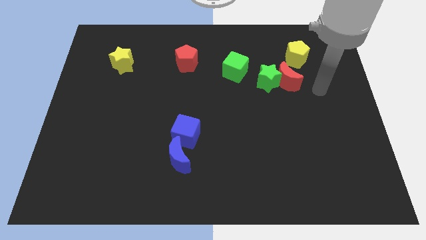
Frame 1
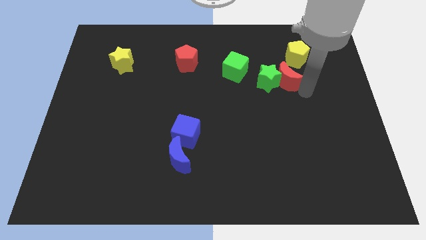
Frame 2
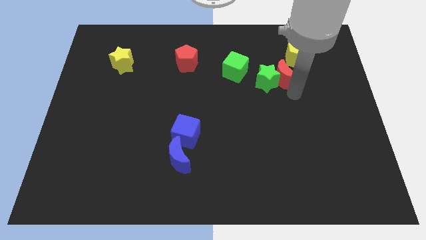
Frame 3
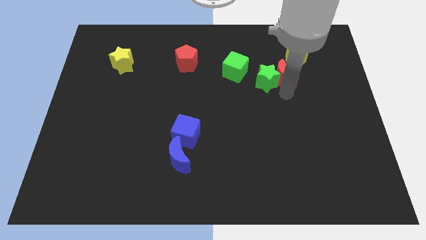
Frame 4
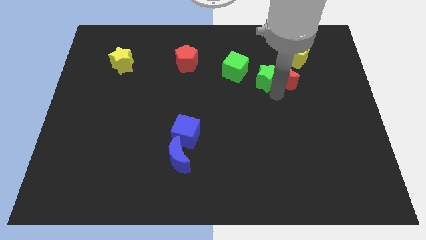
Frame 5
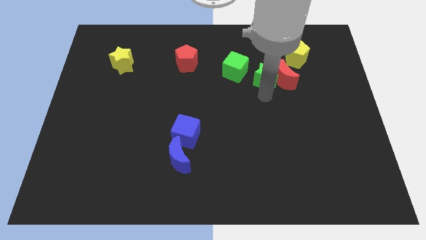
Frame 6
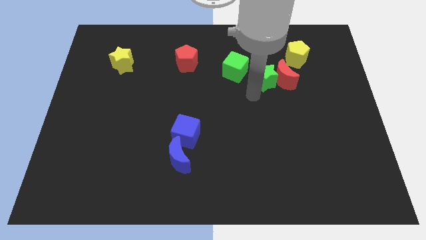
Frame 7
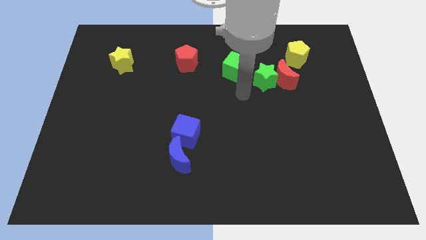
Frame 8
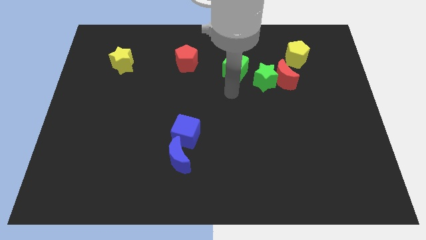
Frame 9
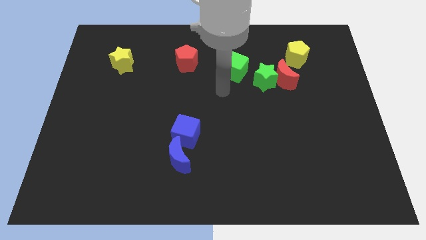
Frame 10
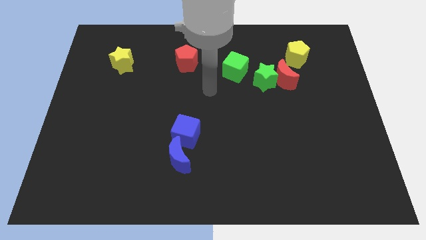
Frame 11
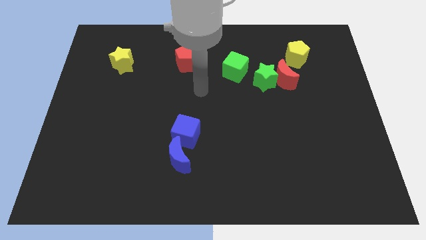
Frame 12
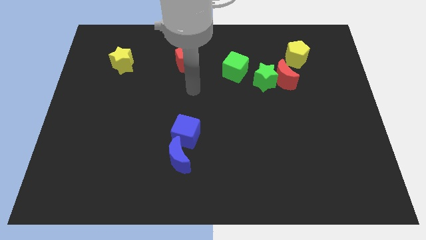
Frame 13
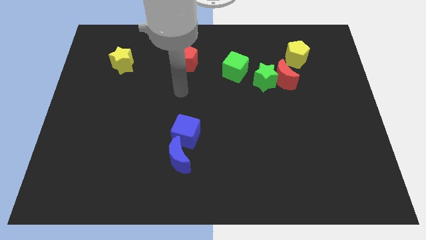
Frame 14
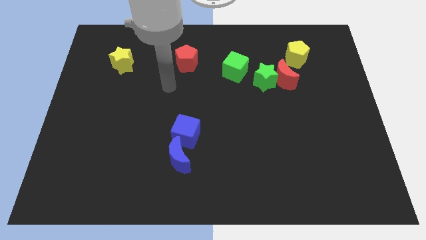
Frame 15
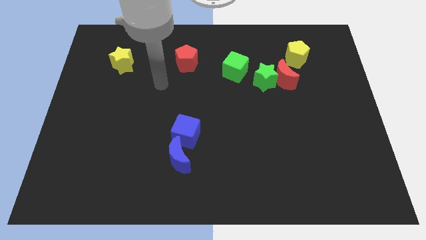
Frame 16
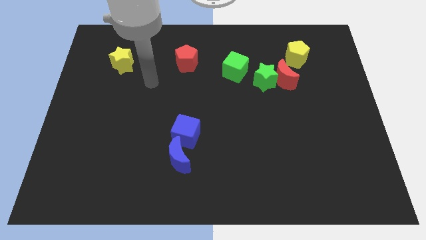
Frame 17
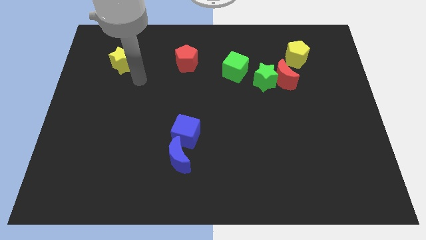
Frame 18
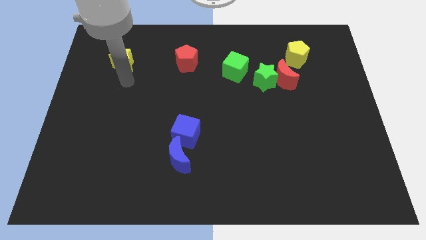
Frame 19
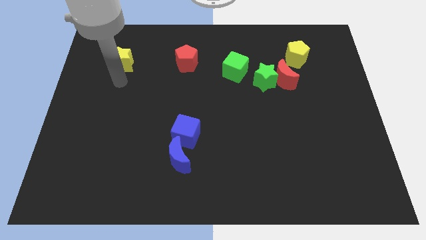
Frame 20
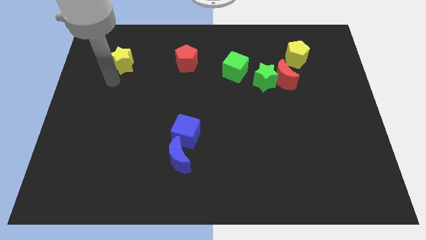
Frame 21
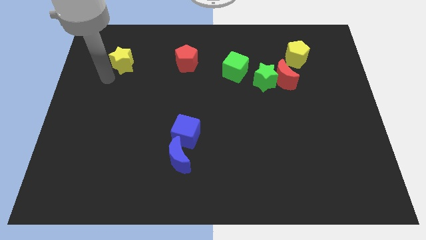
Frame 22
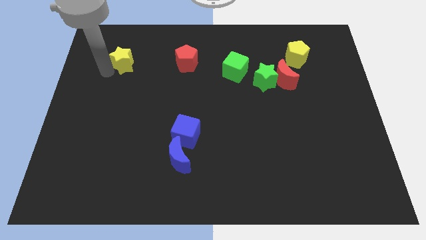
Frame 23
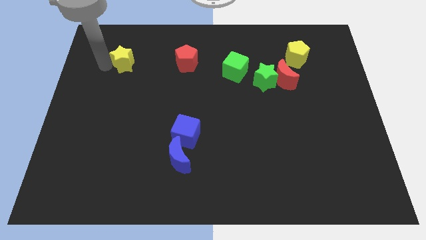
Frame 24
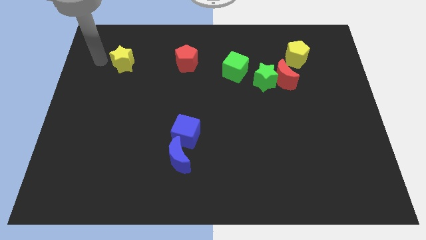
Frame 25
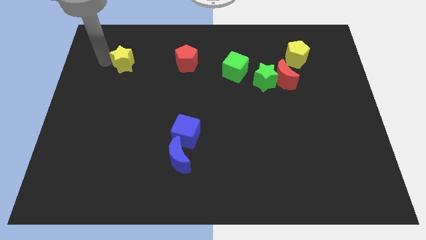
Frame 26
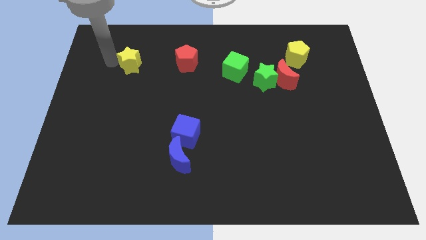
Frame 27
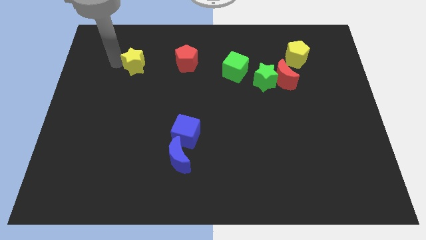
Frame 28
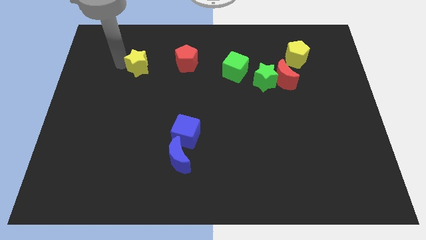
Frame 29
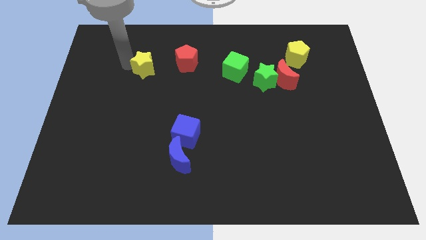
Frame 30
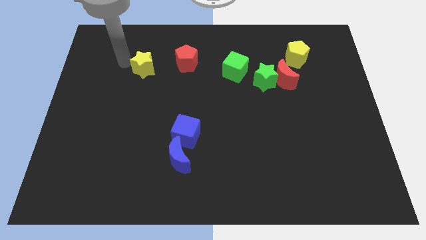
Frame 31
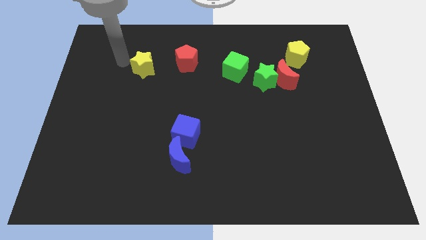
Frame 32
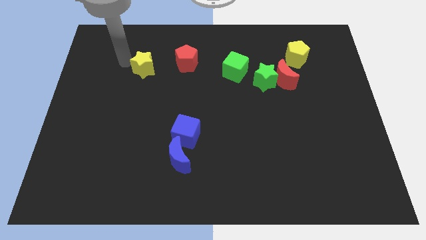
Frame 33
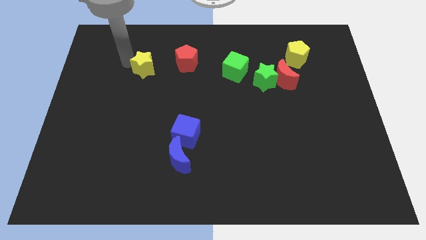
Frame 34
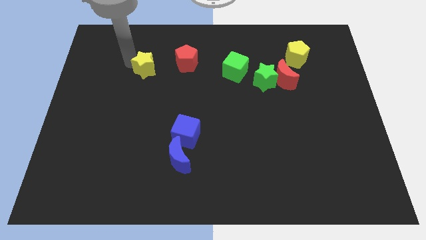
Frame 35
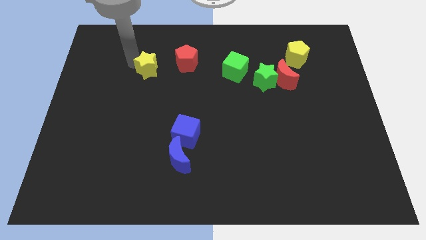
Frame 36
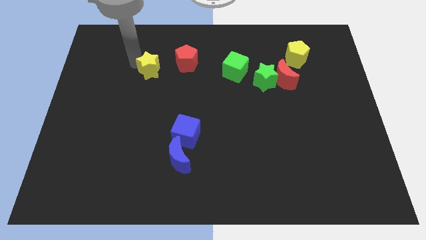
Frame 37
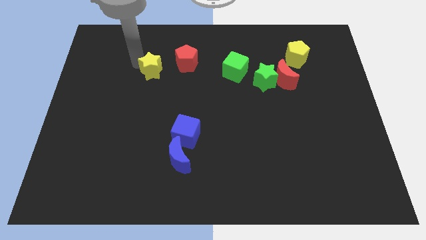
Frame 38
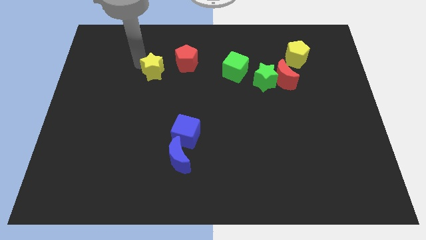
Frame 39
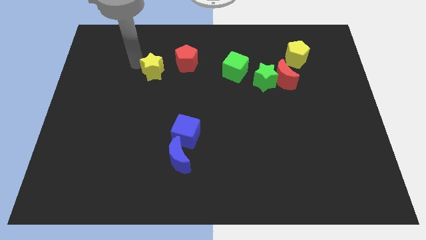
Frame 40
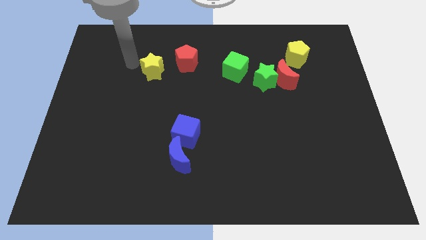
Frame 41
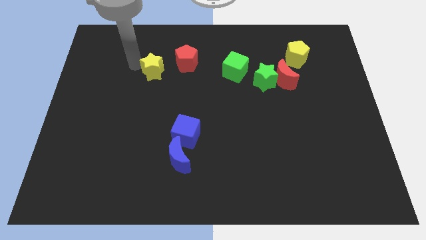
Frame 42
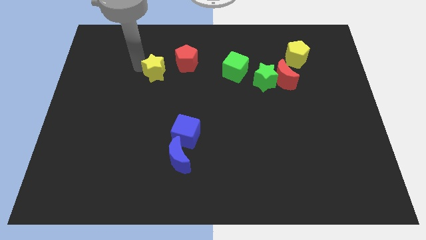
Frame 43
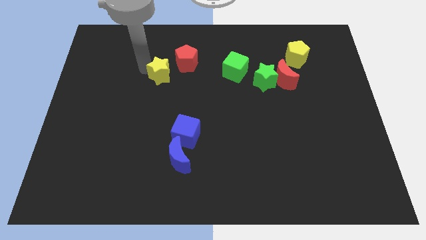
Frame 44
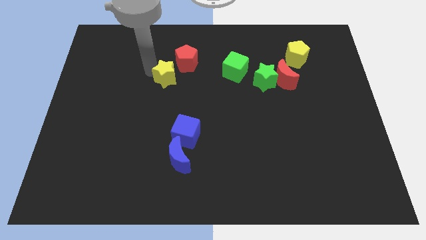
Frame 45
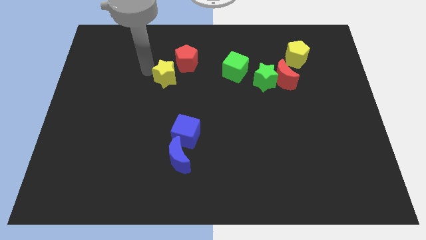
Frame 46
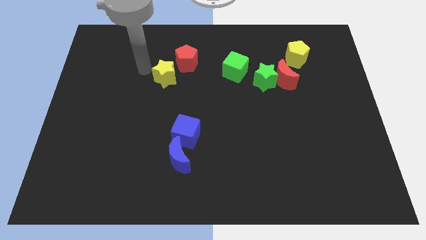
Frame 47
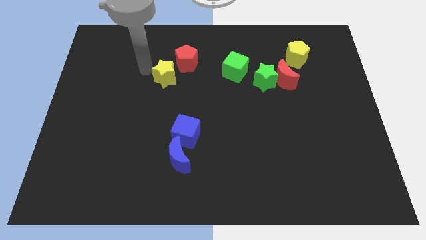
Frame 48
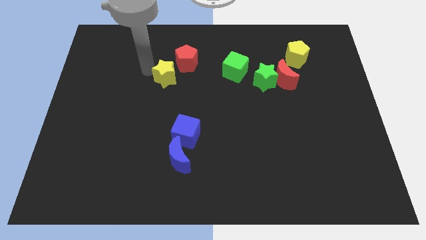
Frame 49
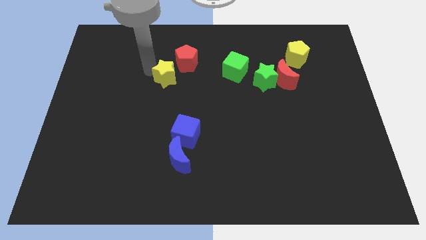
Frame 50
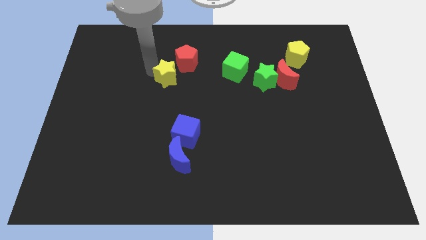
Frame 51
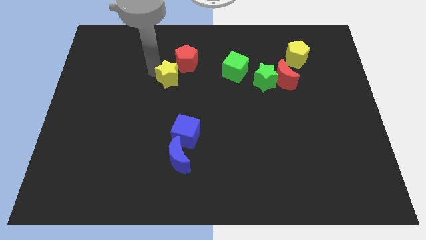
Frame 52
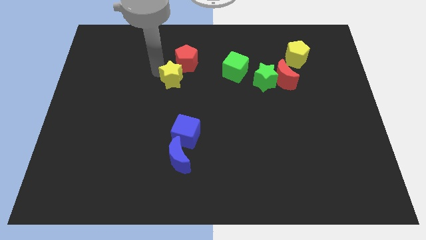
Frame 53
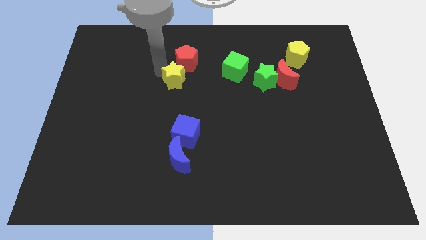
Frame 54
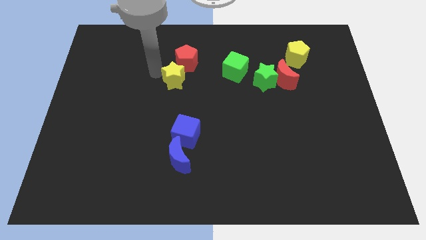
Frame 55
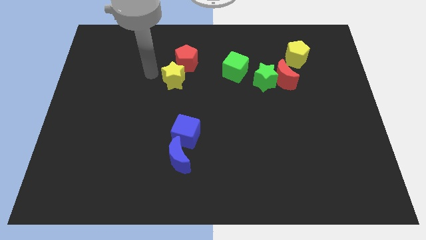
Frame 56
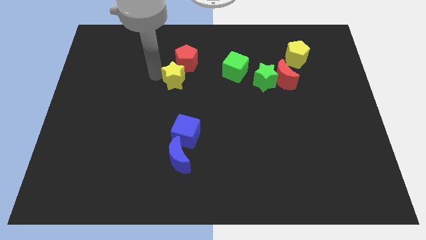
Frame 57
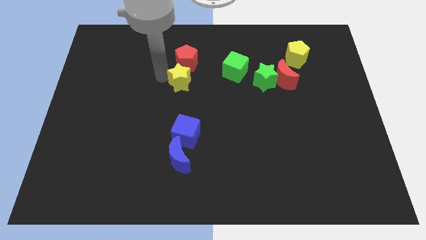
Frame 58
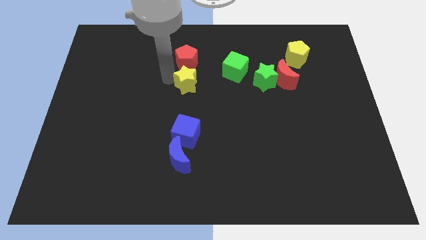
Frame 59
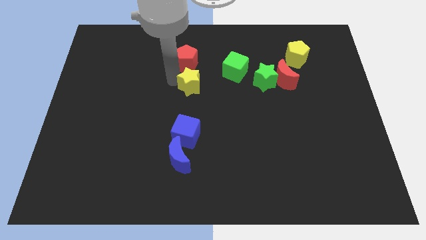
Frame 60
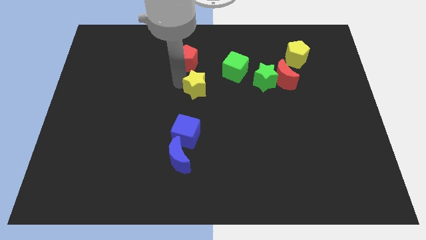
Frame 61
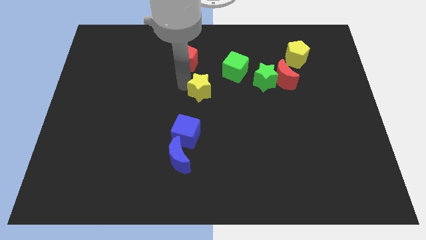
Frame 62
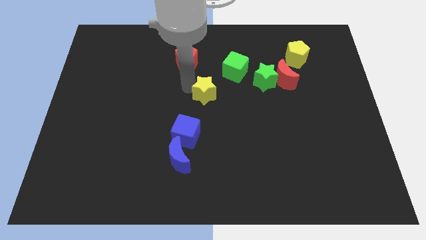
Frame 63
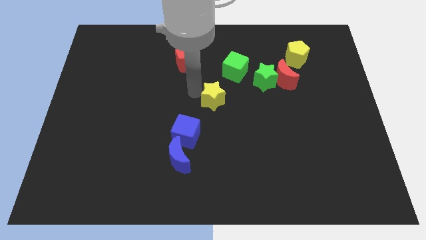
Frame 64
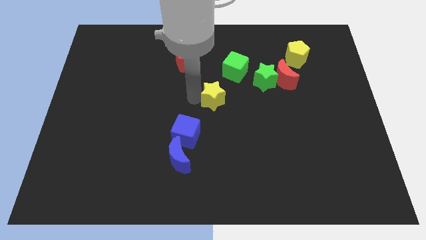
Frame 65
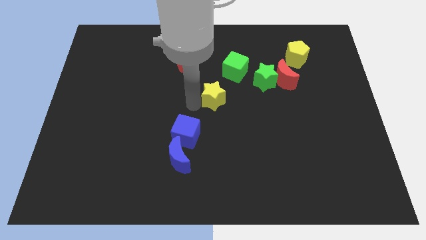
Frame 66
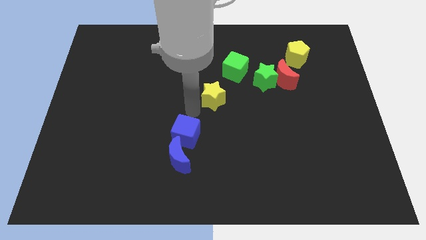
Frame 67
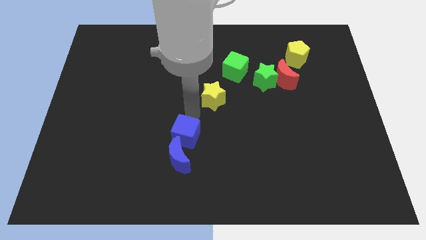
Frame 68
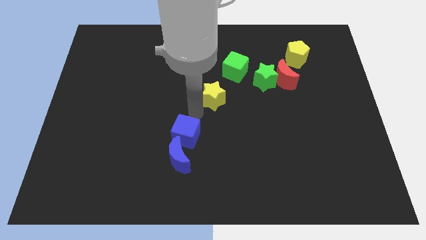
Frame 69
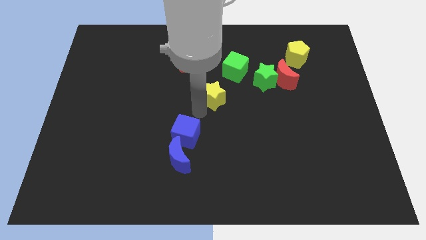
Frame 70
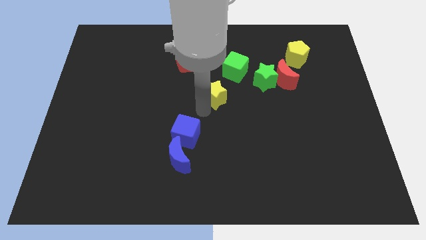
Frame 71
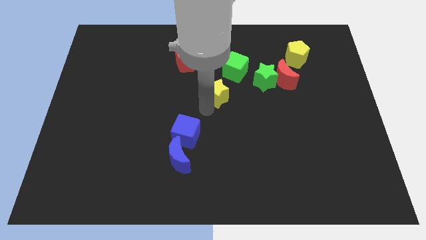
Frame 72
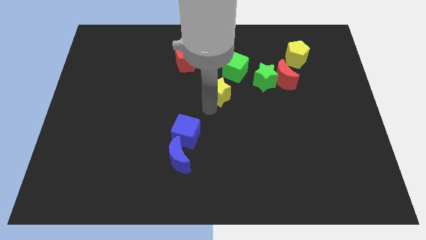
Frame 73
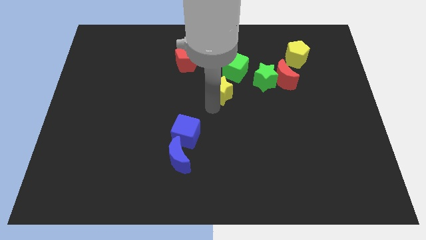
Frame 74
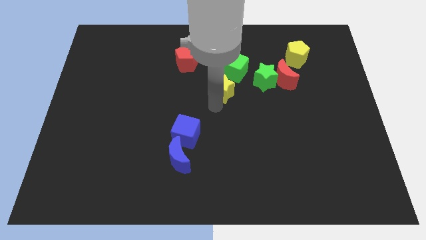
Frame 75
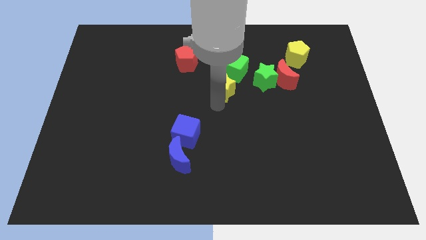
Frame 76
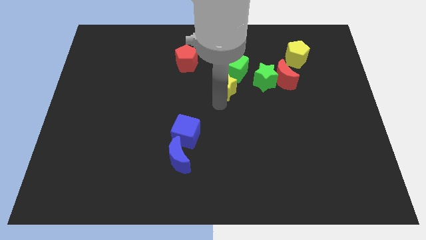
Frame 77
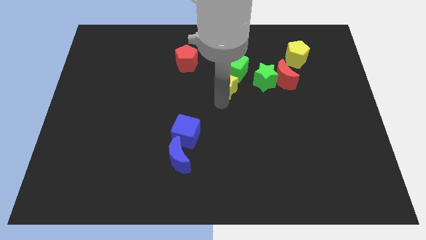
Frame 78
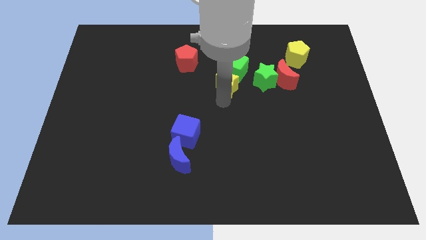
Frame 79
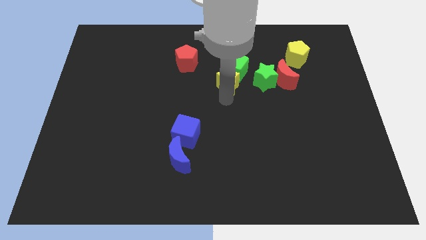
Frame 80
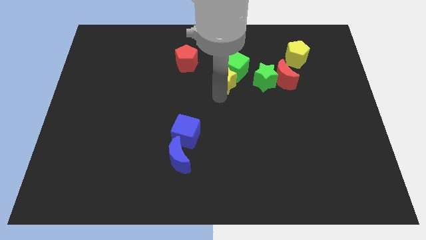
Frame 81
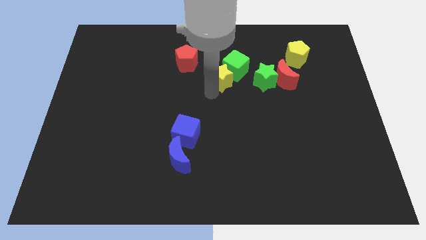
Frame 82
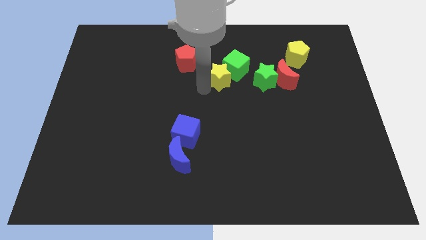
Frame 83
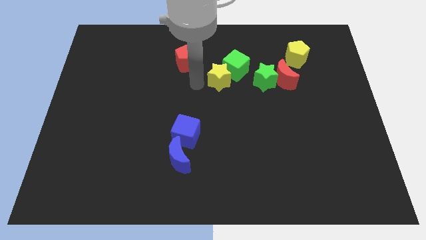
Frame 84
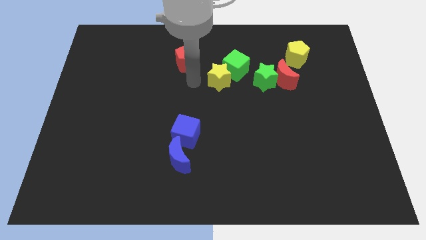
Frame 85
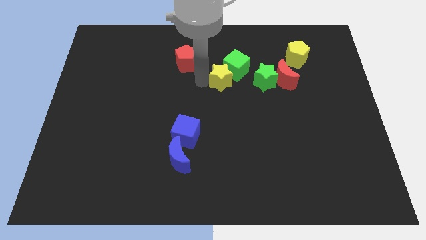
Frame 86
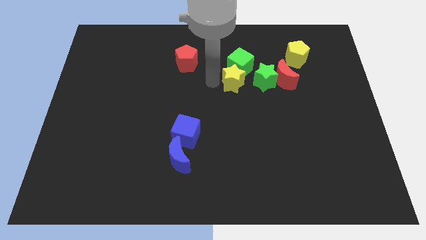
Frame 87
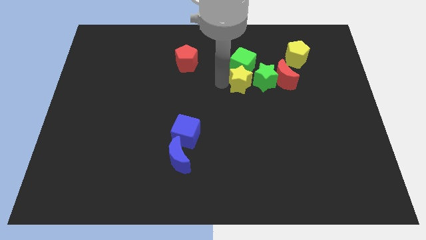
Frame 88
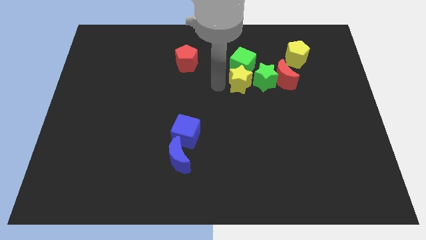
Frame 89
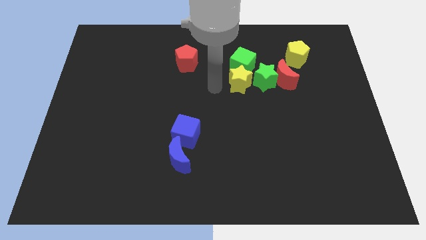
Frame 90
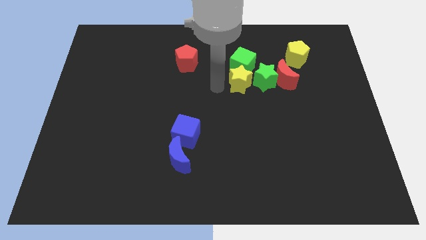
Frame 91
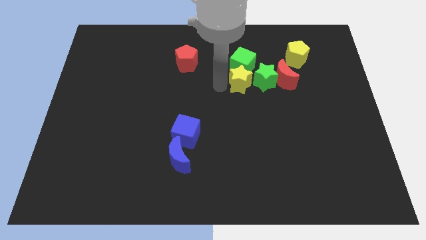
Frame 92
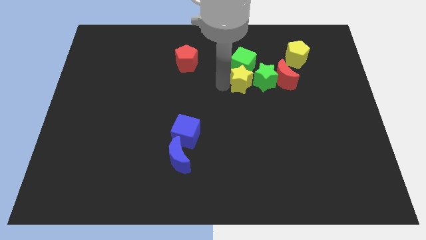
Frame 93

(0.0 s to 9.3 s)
slide the yellow star next to the green star
